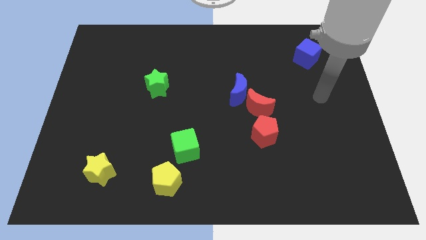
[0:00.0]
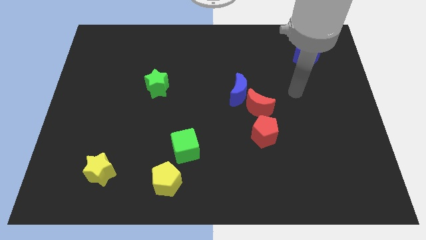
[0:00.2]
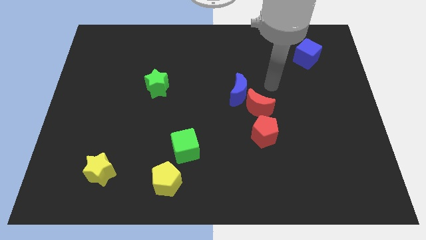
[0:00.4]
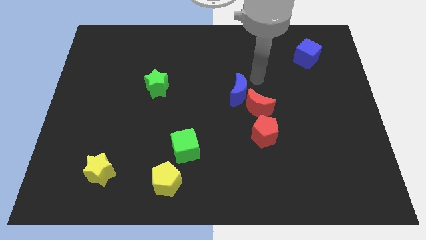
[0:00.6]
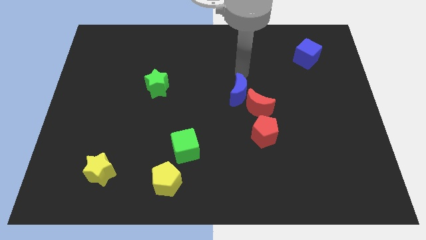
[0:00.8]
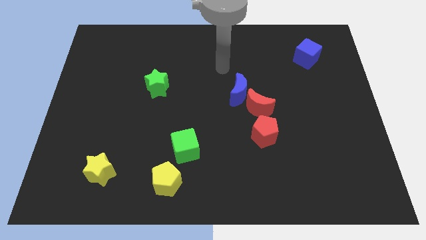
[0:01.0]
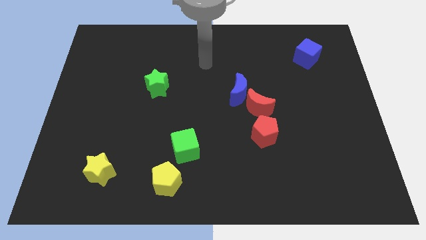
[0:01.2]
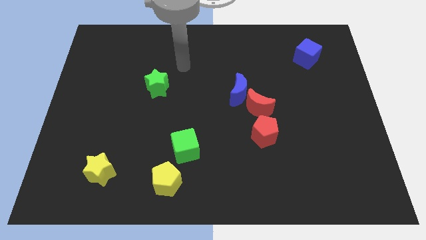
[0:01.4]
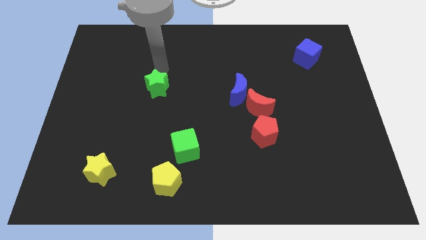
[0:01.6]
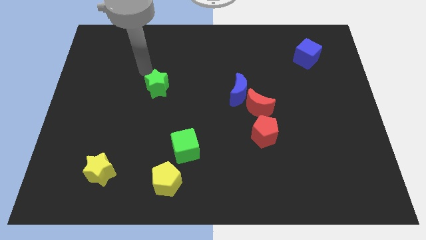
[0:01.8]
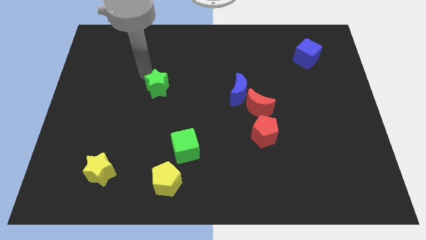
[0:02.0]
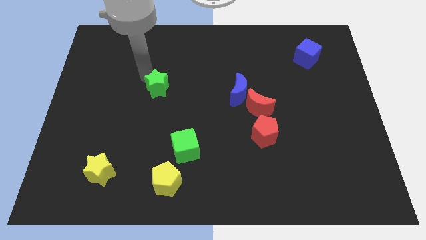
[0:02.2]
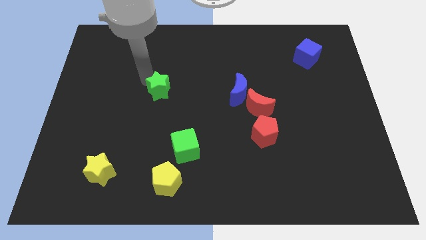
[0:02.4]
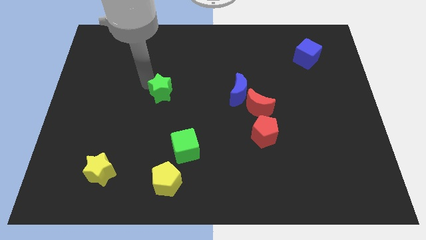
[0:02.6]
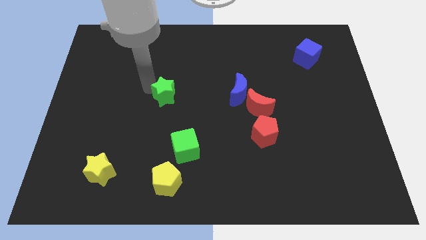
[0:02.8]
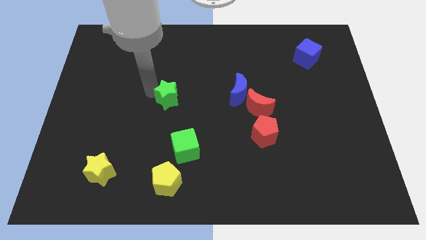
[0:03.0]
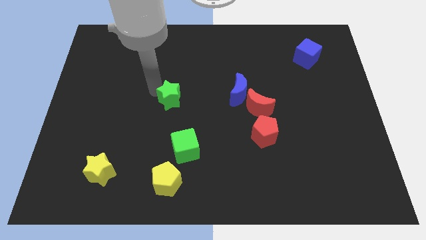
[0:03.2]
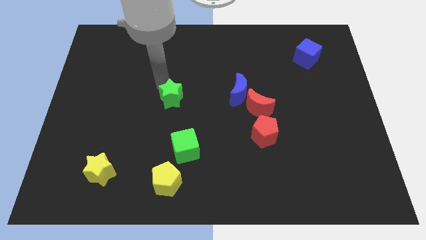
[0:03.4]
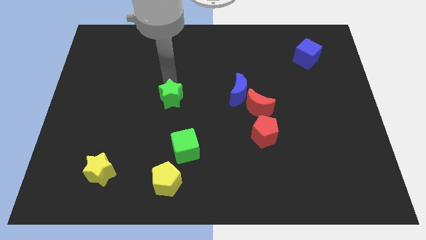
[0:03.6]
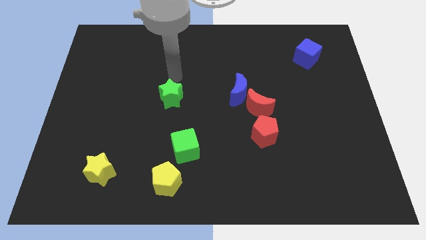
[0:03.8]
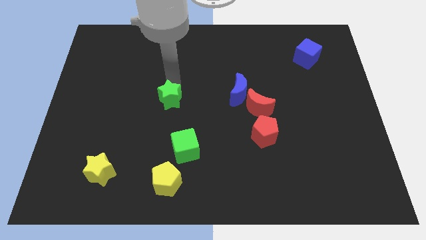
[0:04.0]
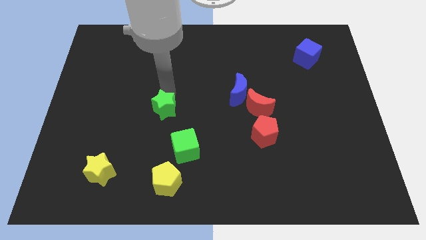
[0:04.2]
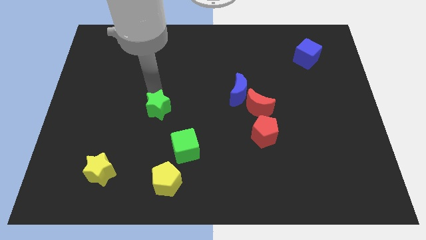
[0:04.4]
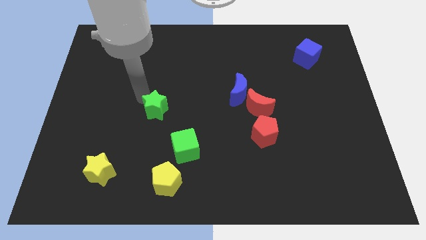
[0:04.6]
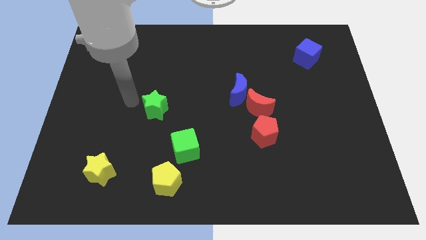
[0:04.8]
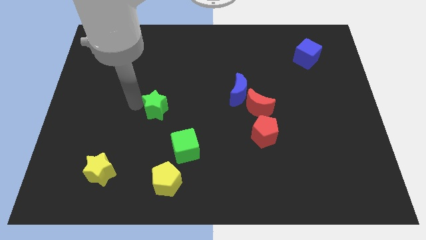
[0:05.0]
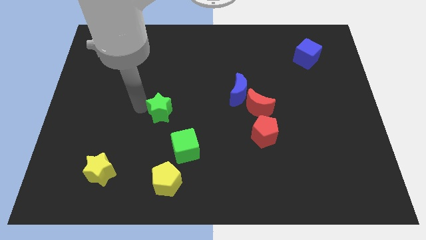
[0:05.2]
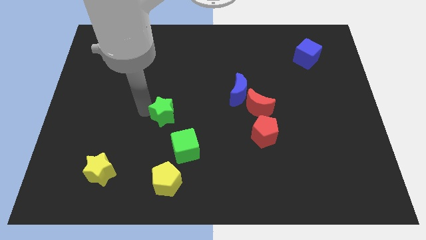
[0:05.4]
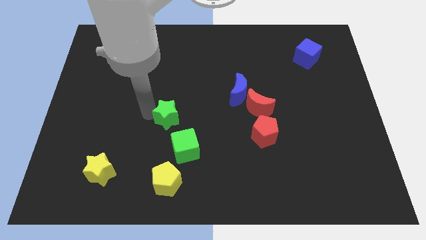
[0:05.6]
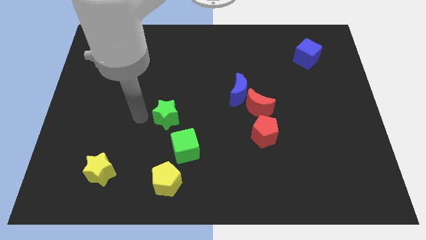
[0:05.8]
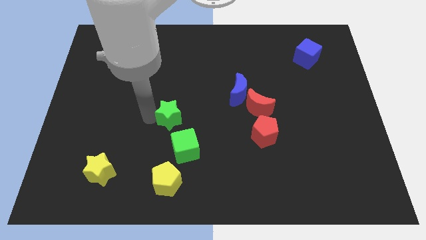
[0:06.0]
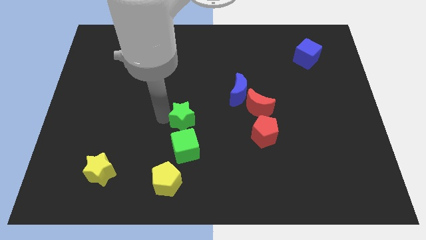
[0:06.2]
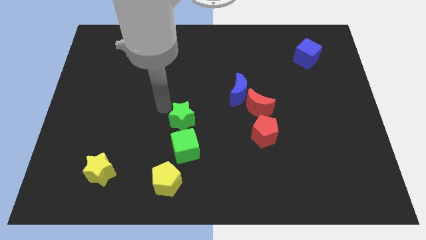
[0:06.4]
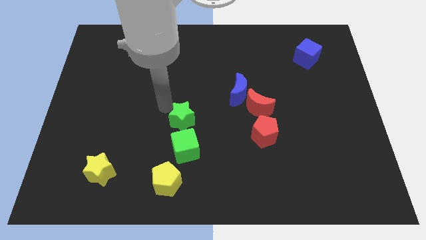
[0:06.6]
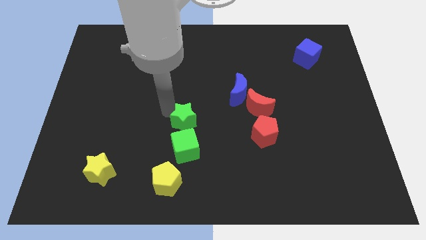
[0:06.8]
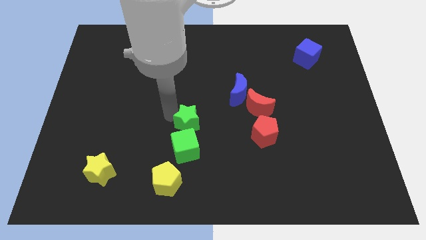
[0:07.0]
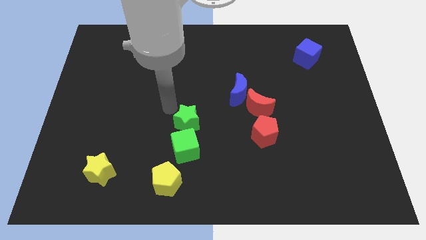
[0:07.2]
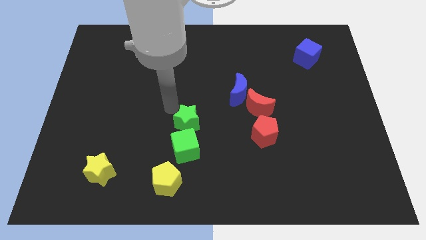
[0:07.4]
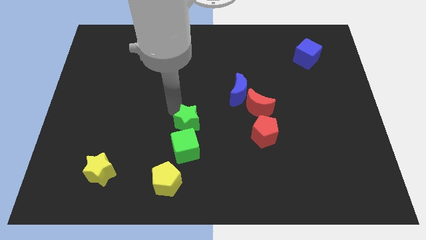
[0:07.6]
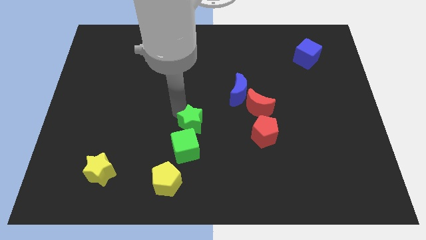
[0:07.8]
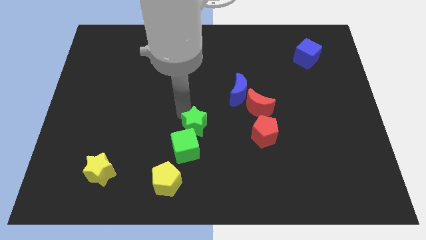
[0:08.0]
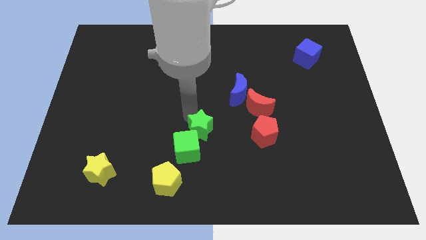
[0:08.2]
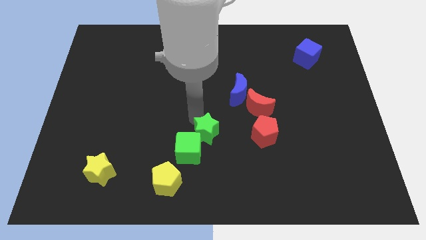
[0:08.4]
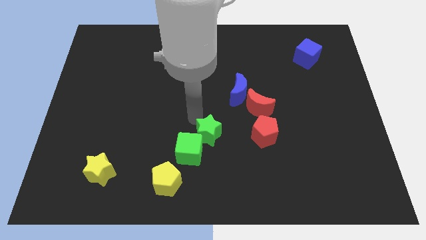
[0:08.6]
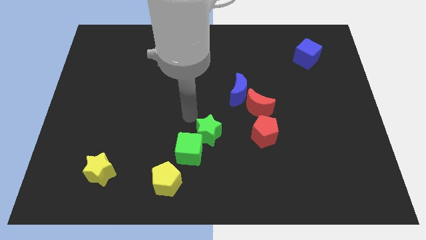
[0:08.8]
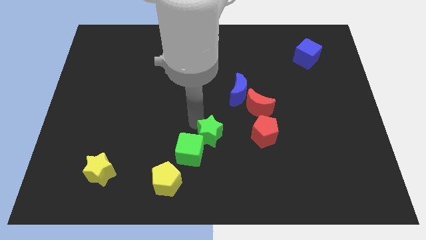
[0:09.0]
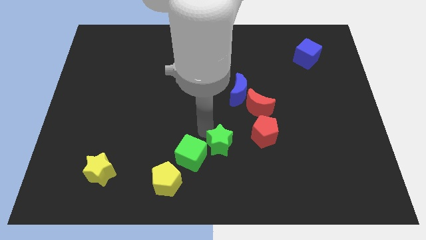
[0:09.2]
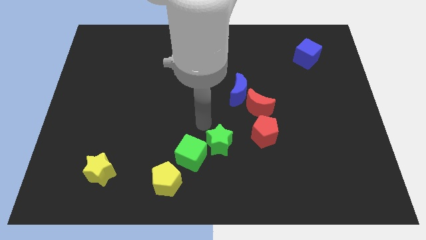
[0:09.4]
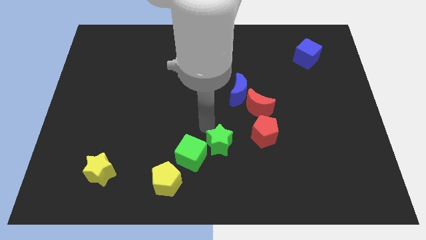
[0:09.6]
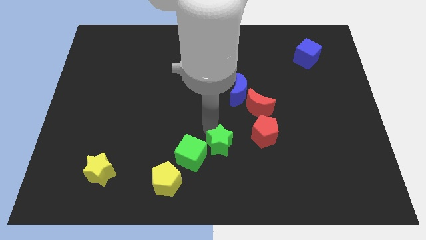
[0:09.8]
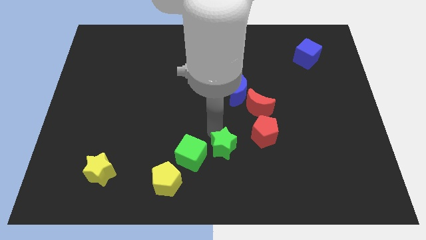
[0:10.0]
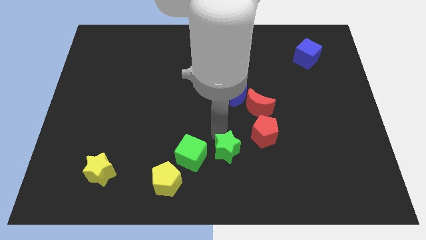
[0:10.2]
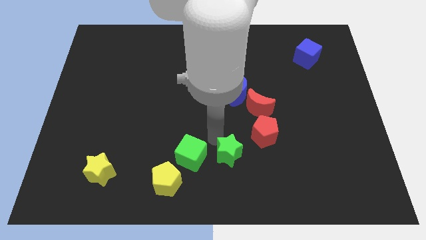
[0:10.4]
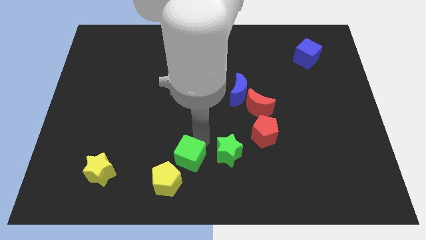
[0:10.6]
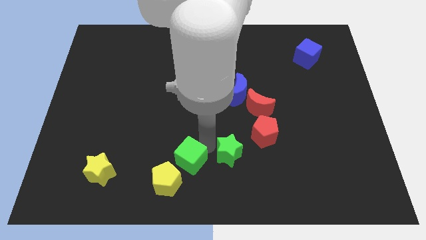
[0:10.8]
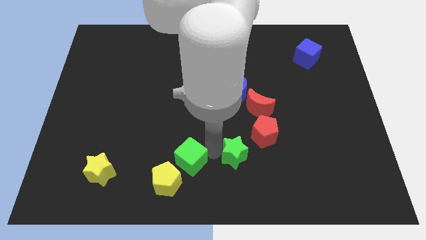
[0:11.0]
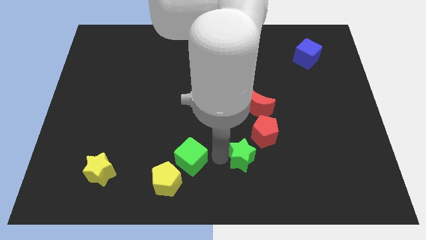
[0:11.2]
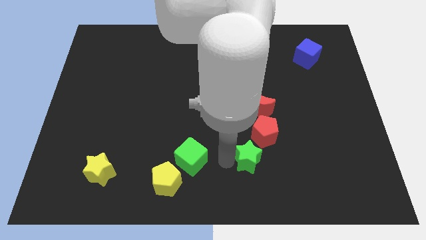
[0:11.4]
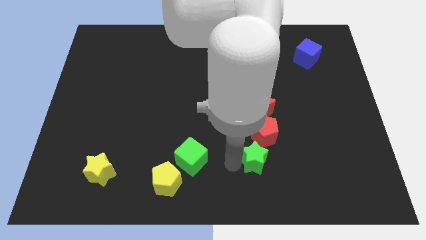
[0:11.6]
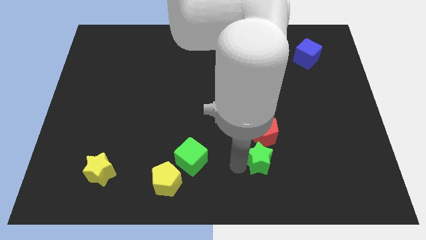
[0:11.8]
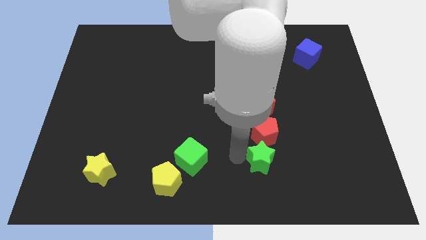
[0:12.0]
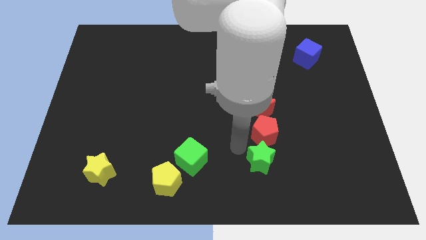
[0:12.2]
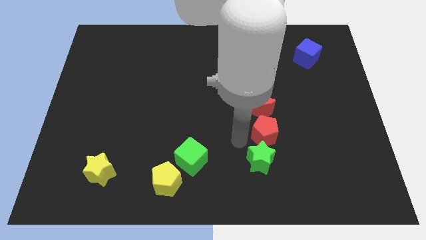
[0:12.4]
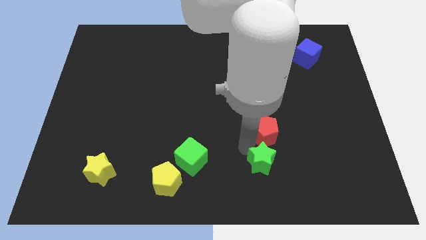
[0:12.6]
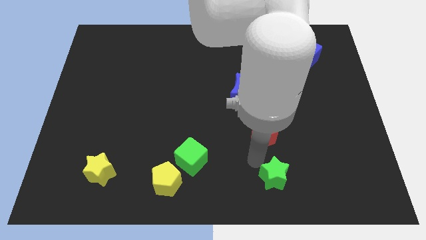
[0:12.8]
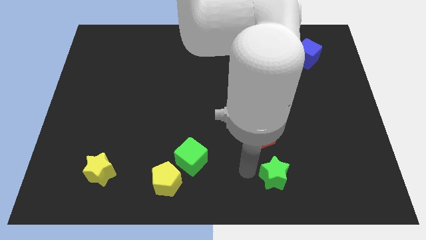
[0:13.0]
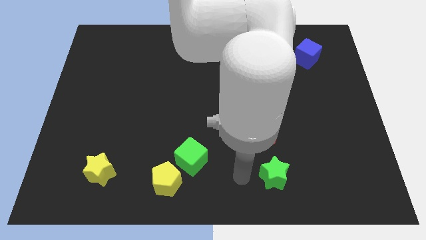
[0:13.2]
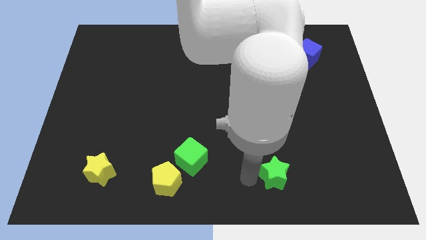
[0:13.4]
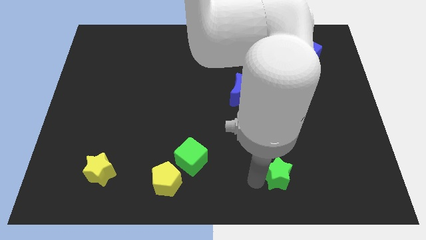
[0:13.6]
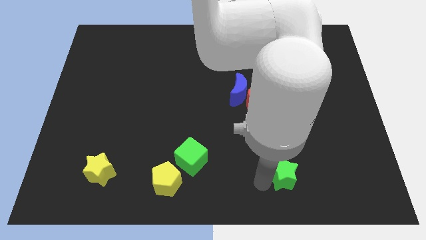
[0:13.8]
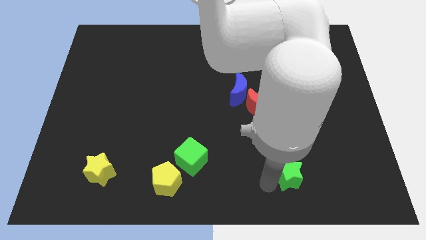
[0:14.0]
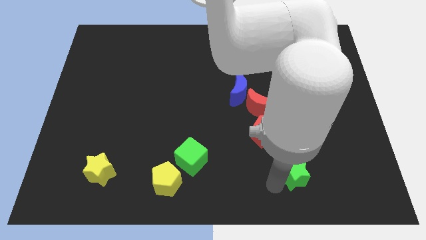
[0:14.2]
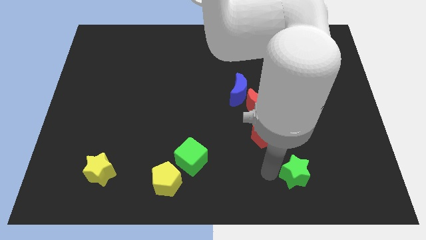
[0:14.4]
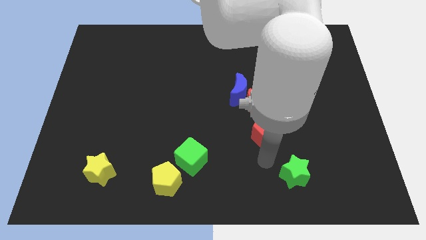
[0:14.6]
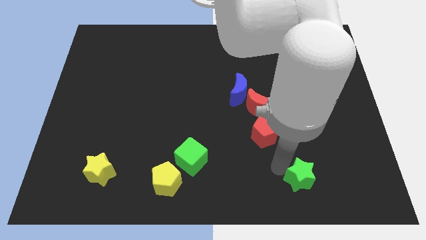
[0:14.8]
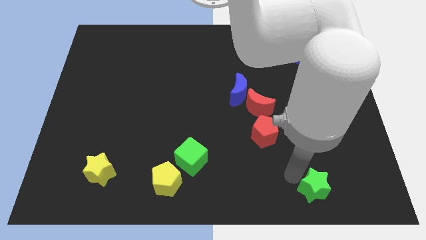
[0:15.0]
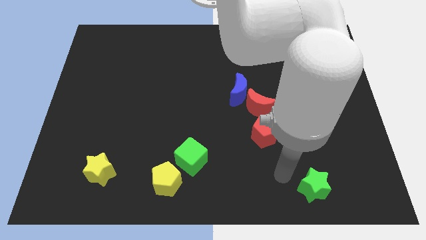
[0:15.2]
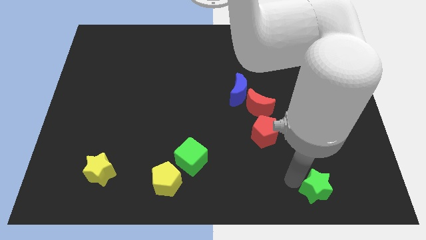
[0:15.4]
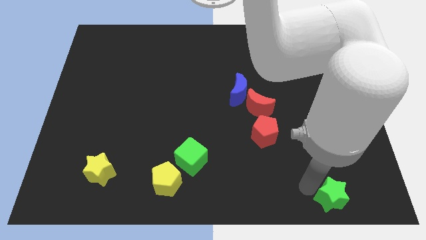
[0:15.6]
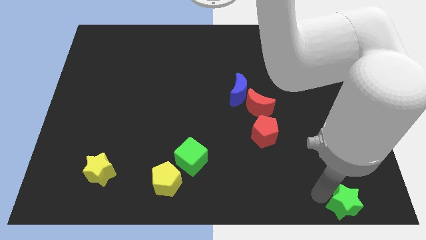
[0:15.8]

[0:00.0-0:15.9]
slide the green star to the bottom right
